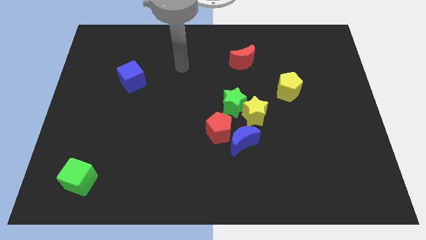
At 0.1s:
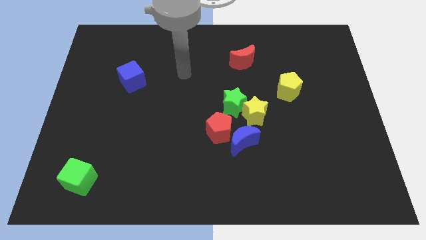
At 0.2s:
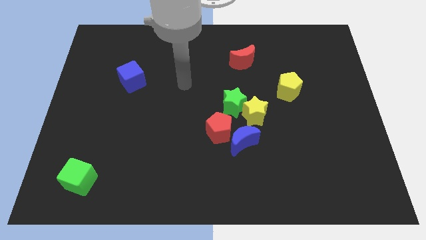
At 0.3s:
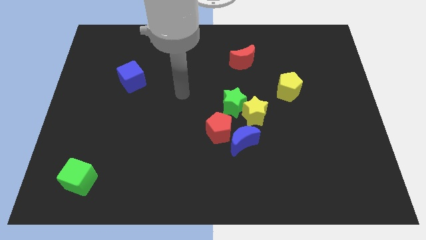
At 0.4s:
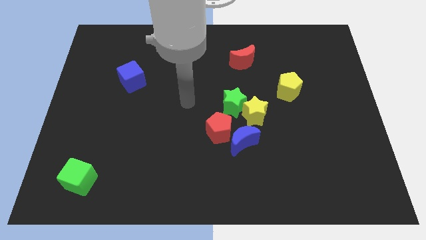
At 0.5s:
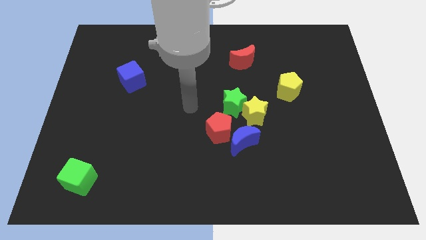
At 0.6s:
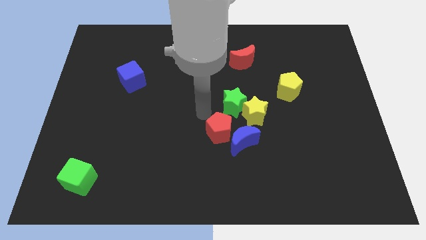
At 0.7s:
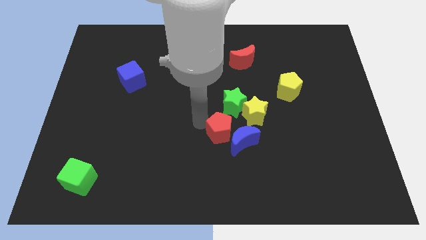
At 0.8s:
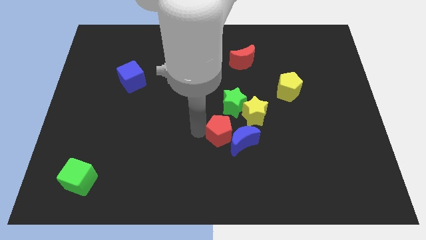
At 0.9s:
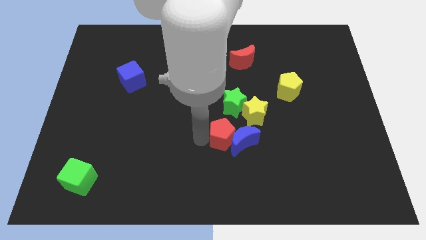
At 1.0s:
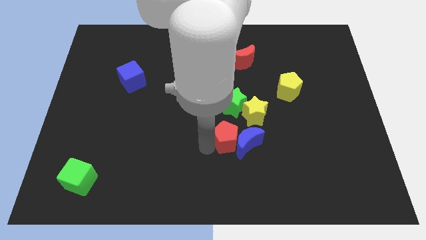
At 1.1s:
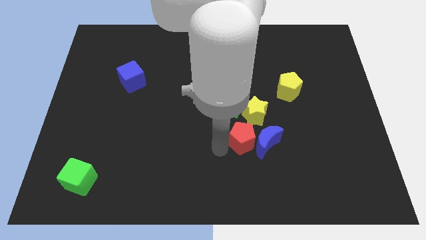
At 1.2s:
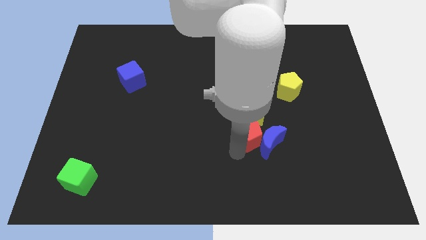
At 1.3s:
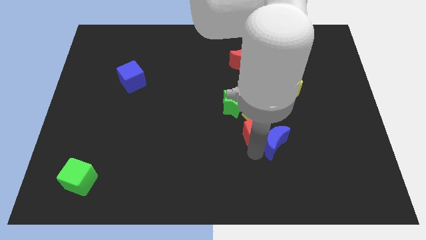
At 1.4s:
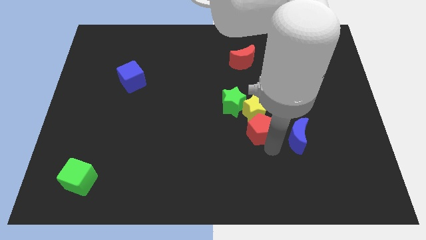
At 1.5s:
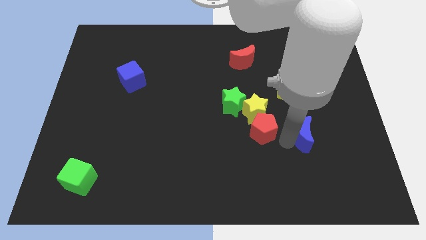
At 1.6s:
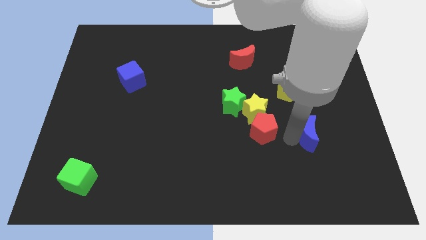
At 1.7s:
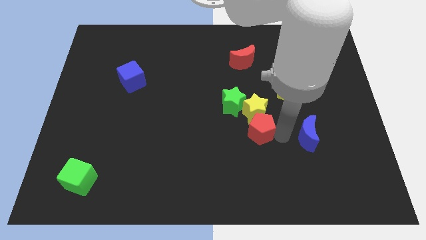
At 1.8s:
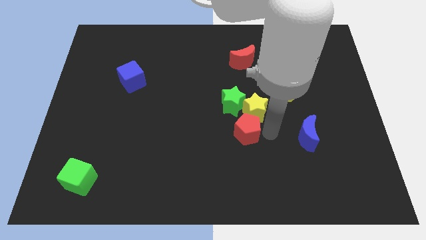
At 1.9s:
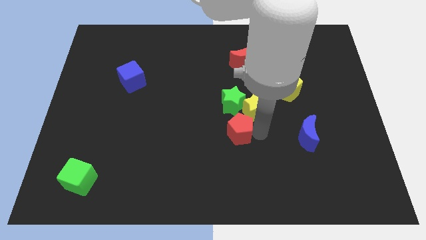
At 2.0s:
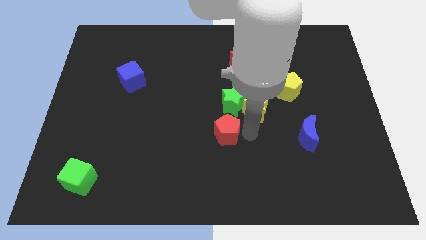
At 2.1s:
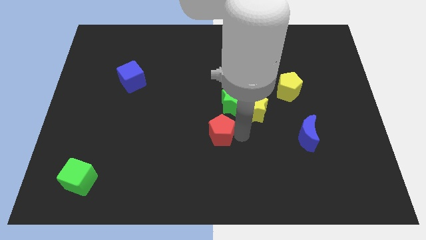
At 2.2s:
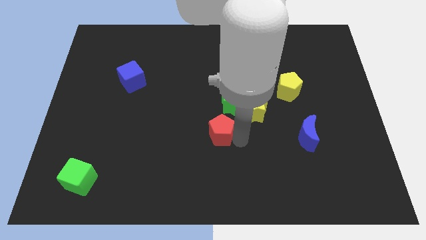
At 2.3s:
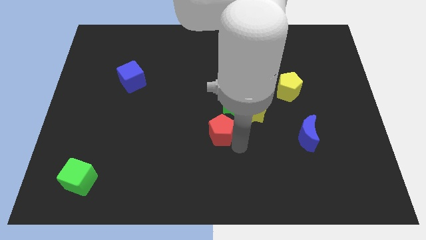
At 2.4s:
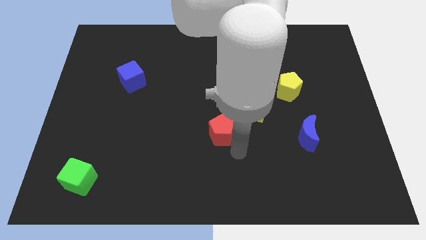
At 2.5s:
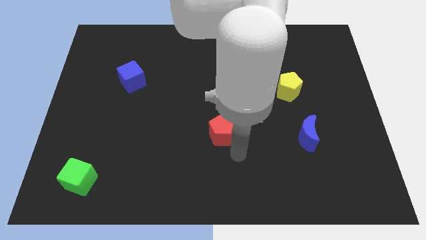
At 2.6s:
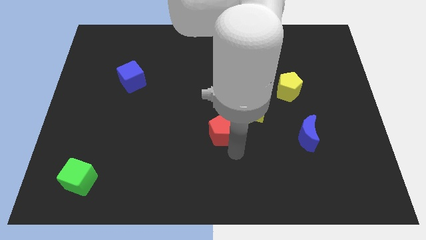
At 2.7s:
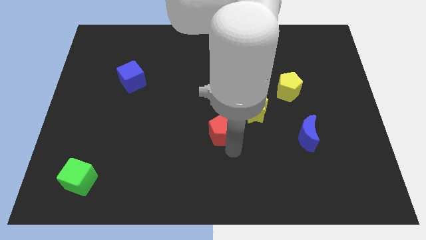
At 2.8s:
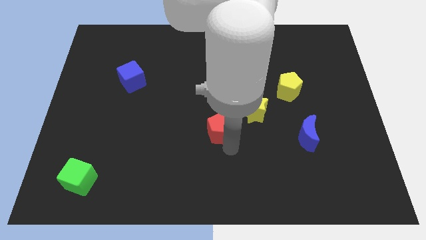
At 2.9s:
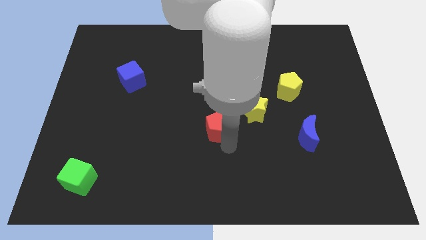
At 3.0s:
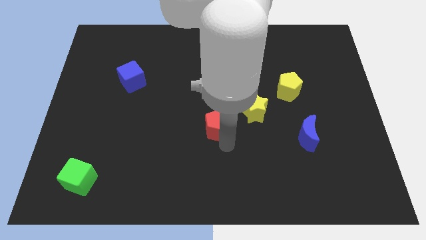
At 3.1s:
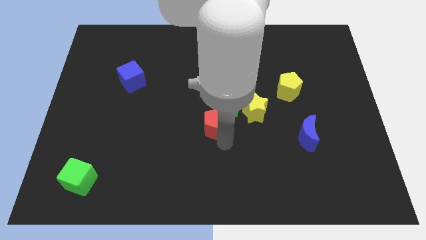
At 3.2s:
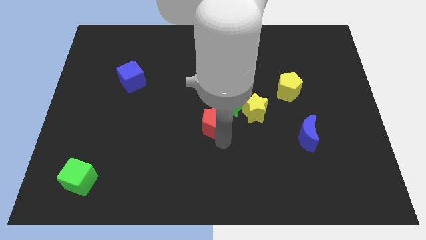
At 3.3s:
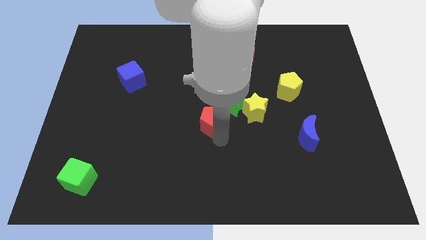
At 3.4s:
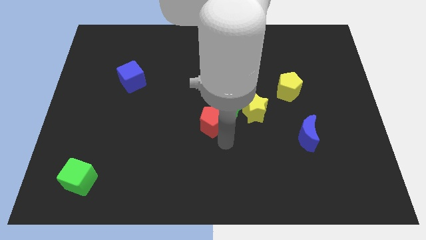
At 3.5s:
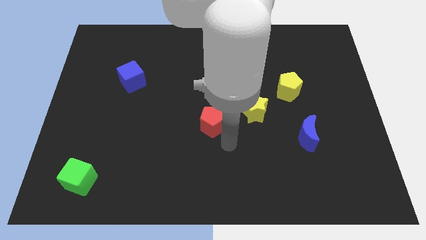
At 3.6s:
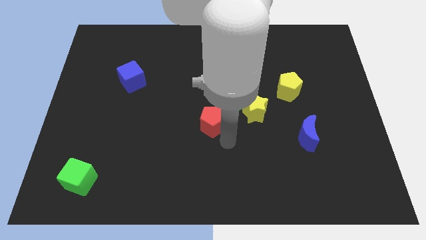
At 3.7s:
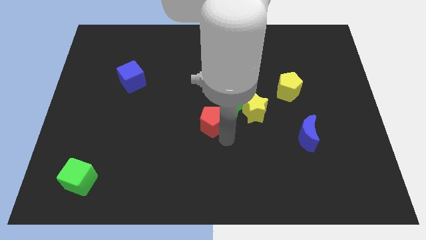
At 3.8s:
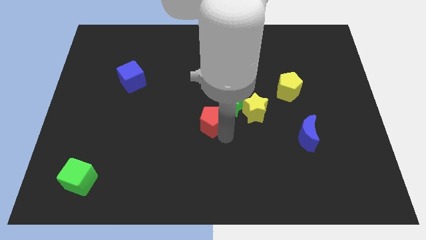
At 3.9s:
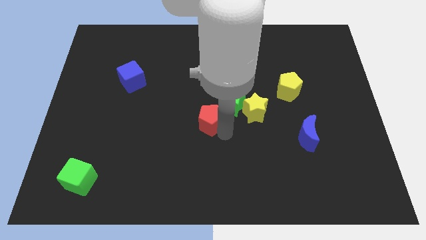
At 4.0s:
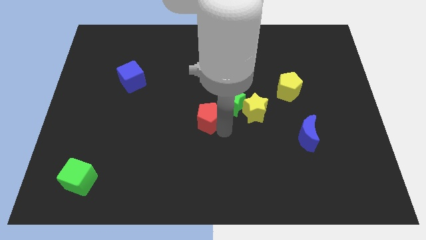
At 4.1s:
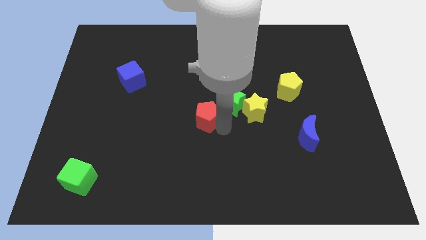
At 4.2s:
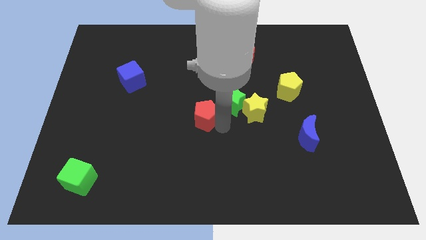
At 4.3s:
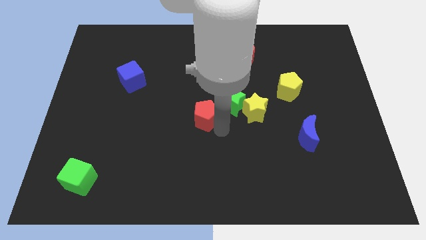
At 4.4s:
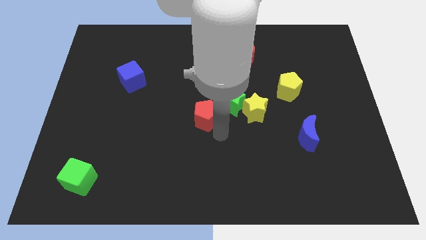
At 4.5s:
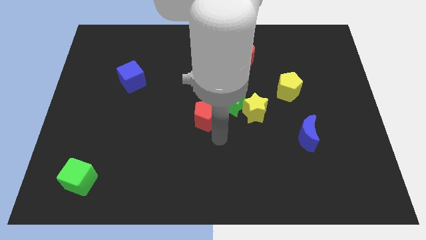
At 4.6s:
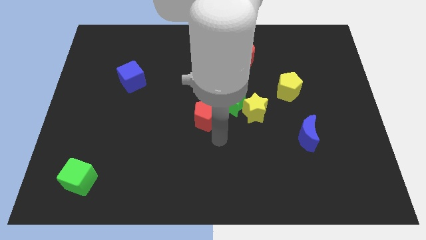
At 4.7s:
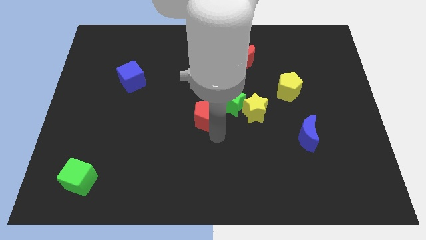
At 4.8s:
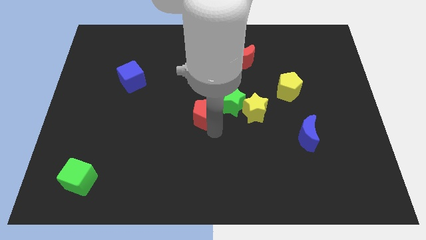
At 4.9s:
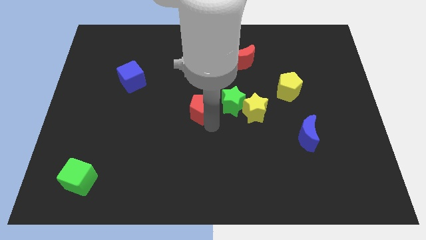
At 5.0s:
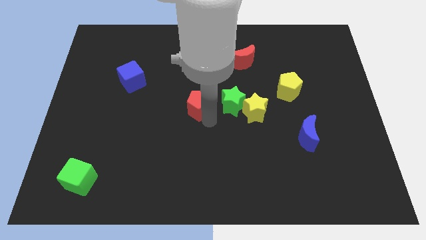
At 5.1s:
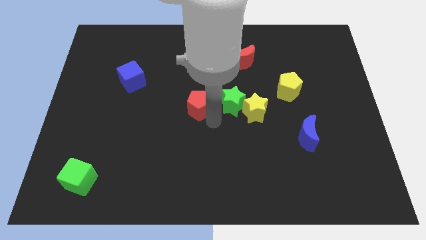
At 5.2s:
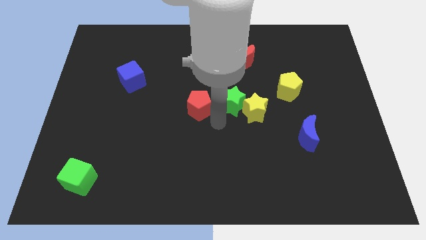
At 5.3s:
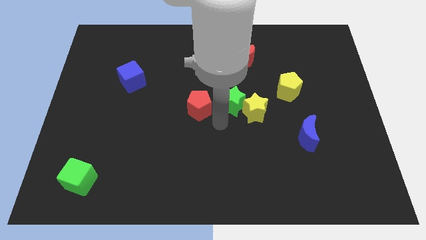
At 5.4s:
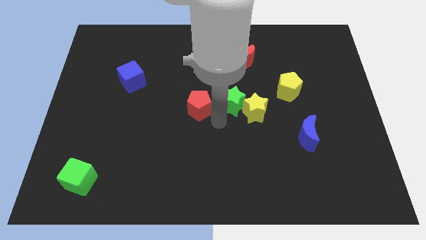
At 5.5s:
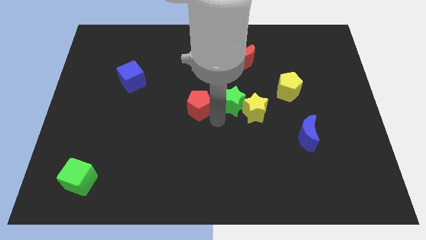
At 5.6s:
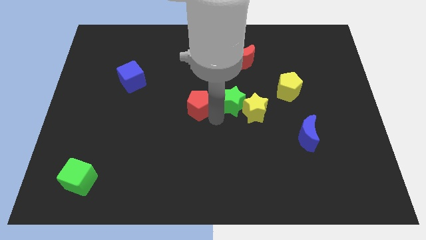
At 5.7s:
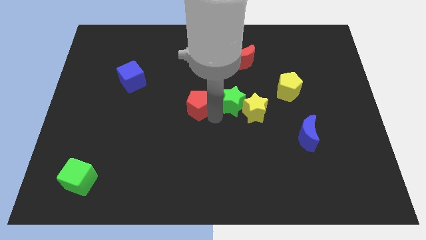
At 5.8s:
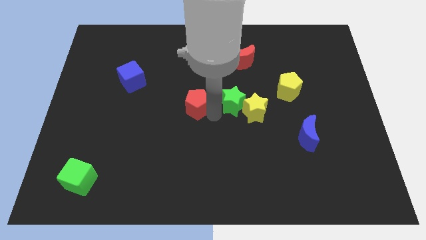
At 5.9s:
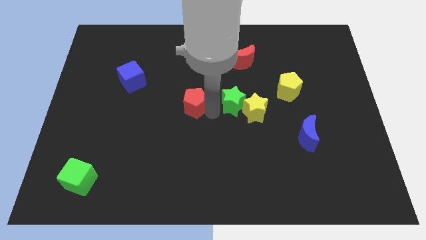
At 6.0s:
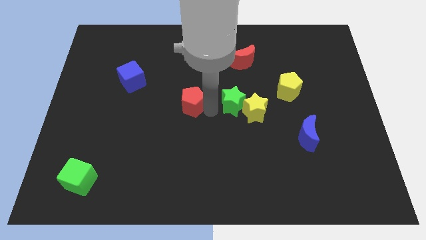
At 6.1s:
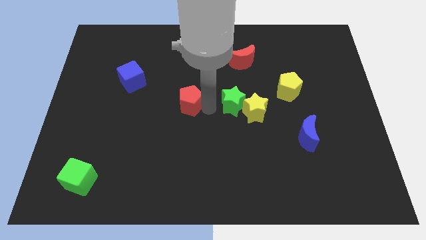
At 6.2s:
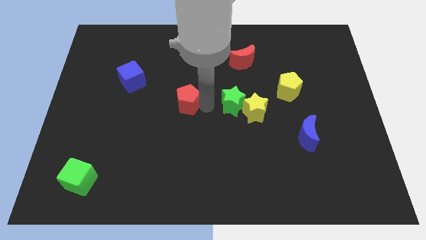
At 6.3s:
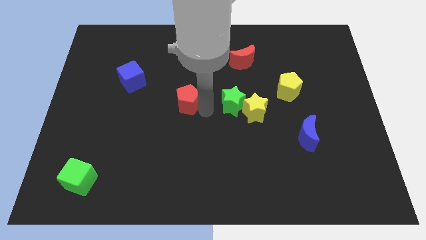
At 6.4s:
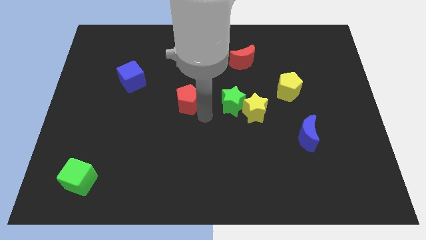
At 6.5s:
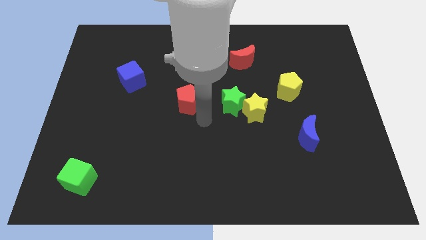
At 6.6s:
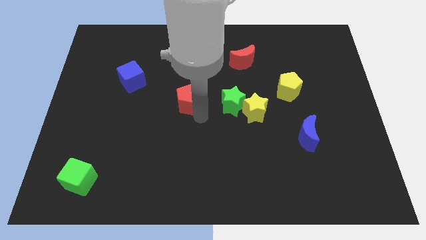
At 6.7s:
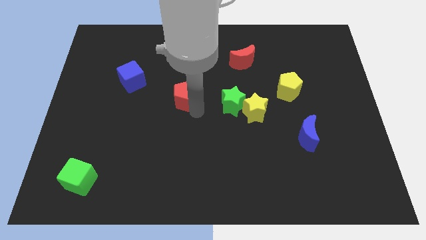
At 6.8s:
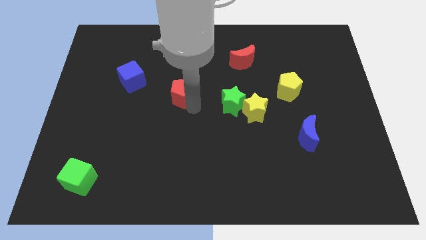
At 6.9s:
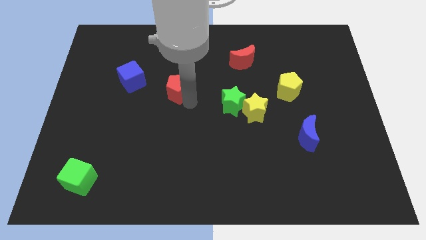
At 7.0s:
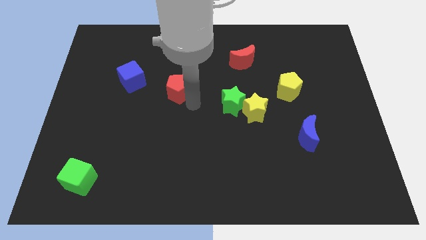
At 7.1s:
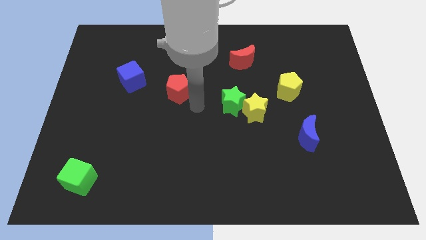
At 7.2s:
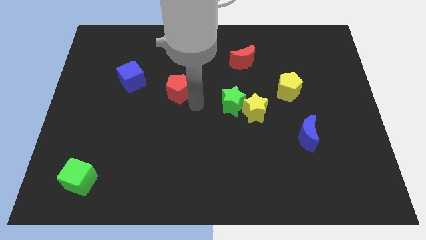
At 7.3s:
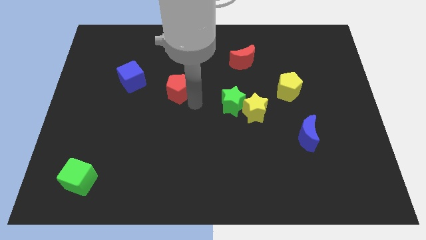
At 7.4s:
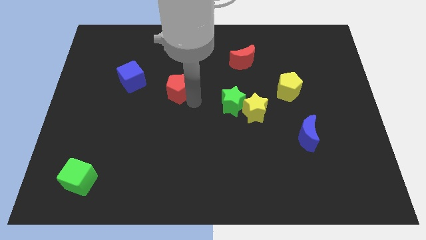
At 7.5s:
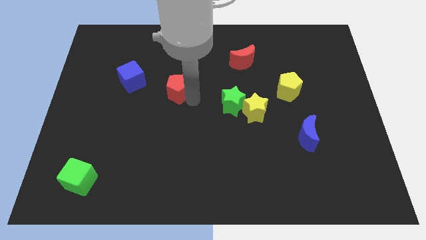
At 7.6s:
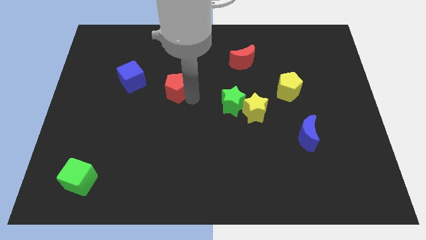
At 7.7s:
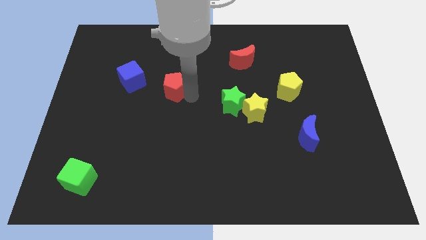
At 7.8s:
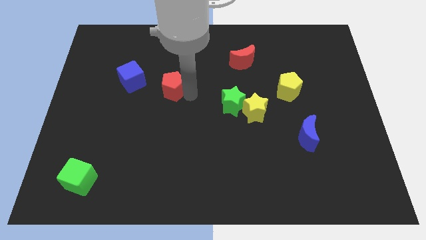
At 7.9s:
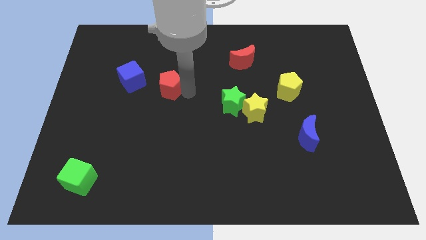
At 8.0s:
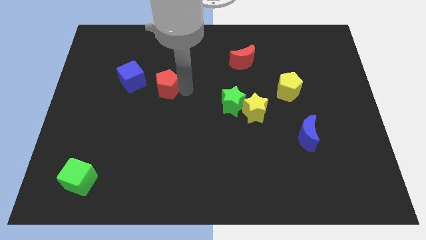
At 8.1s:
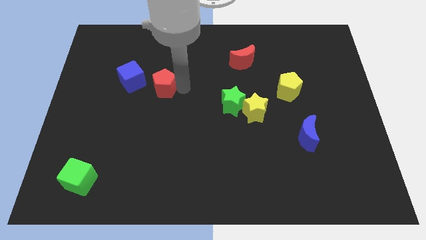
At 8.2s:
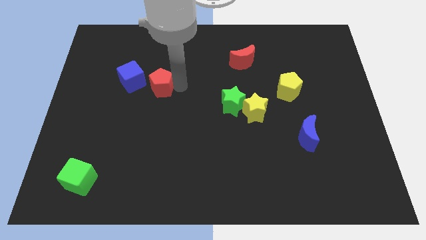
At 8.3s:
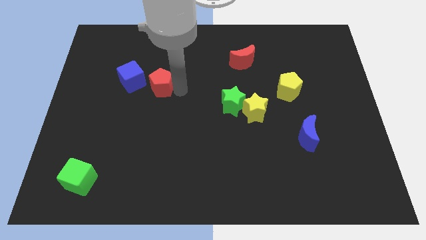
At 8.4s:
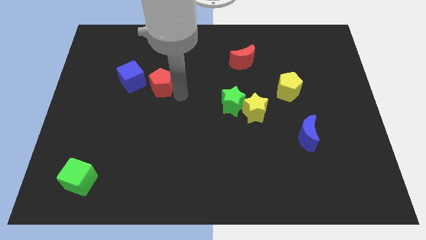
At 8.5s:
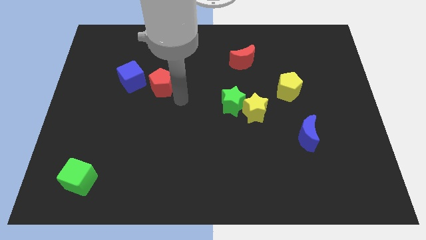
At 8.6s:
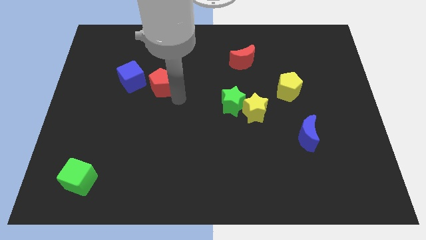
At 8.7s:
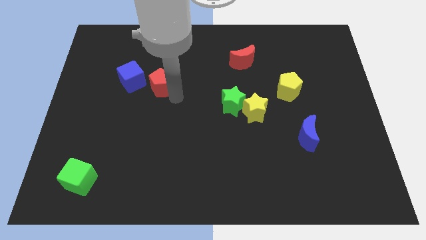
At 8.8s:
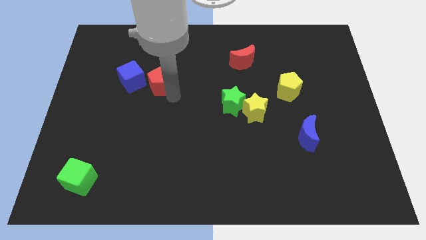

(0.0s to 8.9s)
slide the red pentagon up and to the left
